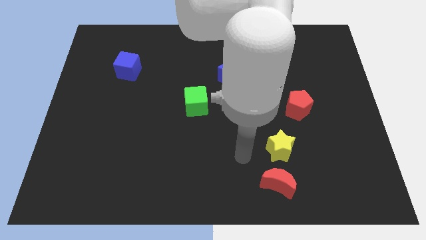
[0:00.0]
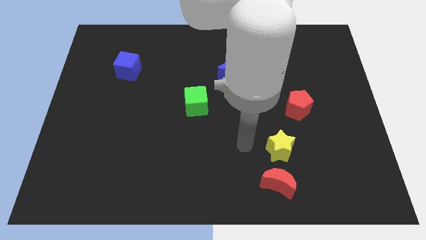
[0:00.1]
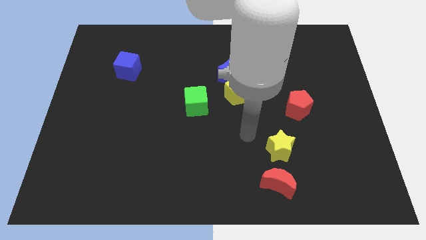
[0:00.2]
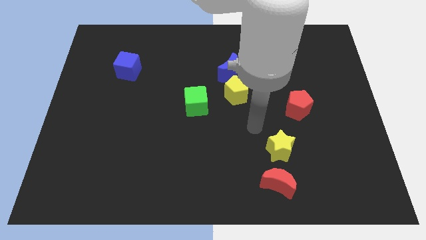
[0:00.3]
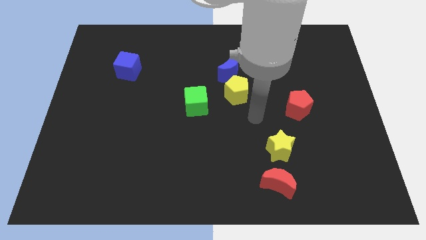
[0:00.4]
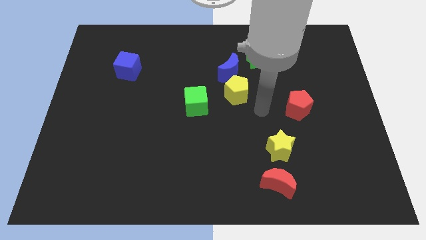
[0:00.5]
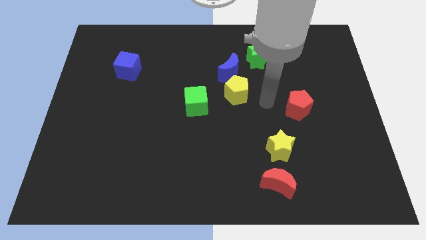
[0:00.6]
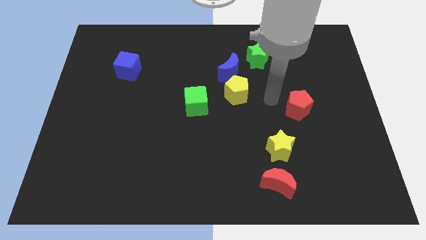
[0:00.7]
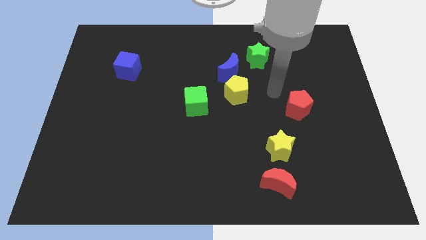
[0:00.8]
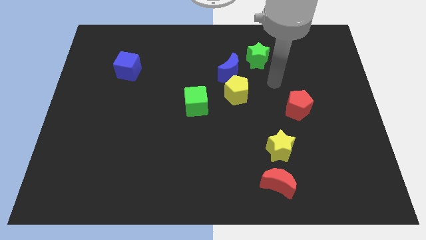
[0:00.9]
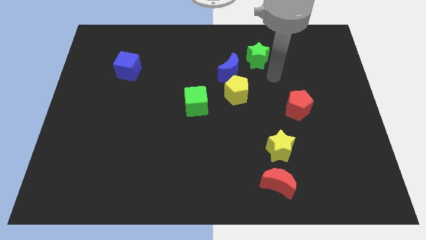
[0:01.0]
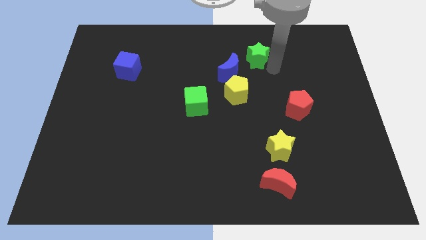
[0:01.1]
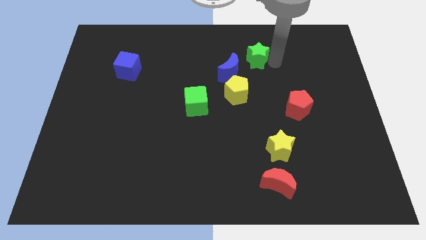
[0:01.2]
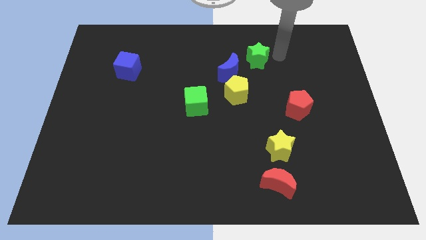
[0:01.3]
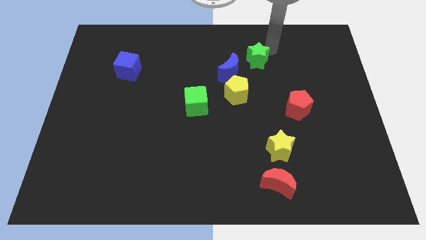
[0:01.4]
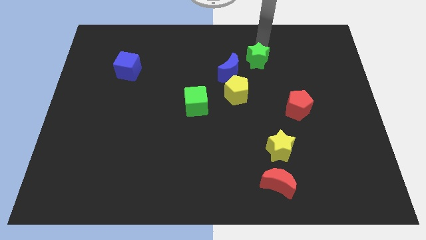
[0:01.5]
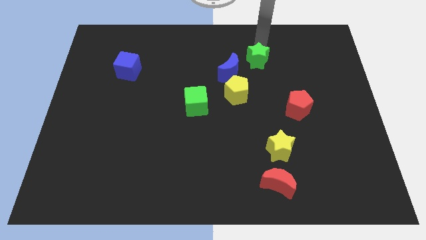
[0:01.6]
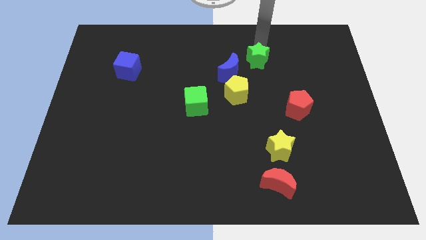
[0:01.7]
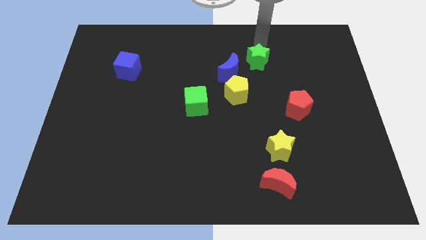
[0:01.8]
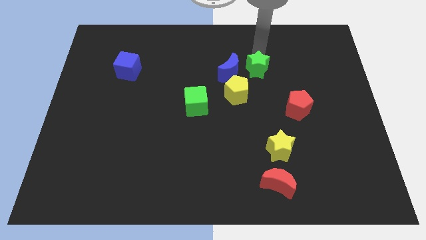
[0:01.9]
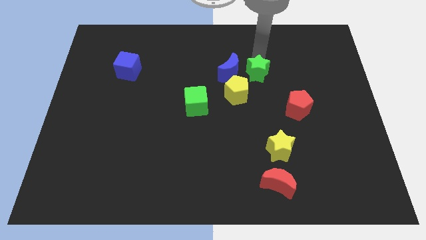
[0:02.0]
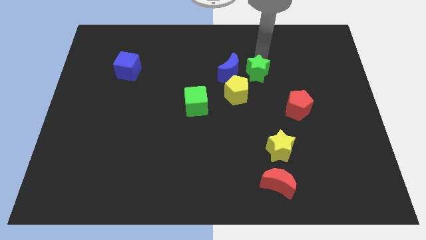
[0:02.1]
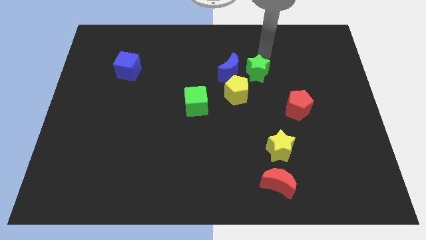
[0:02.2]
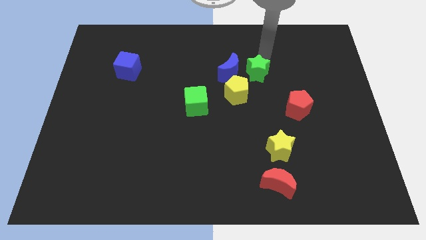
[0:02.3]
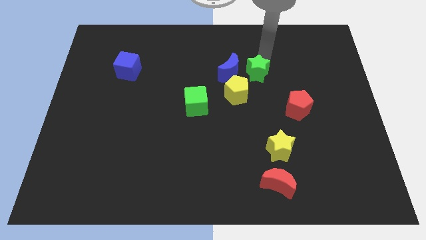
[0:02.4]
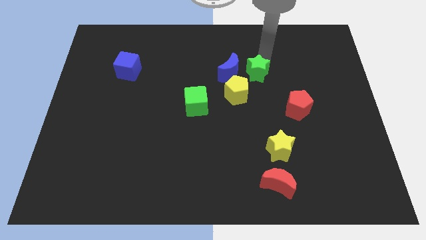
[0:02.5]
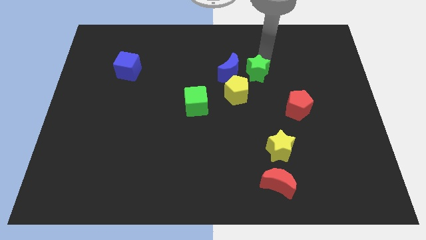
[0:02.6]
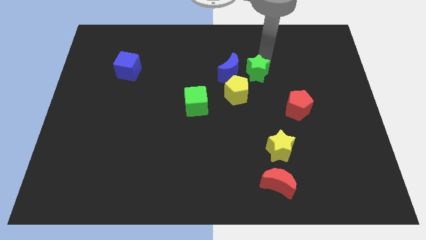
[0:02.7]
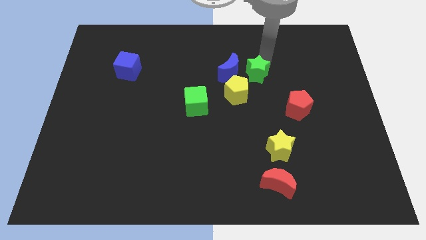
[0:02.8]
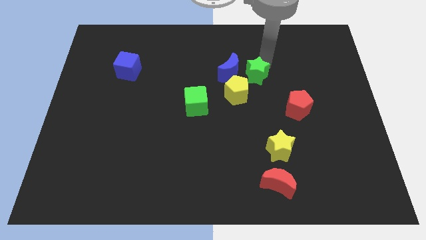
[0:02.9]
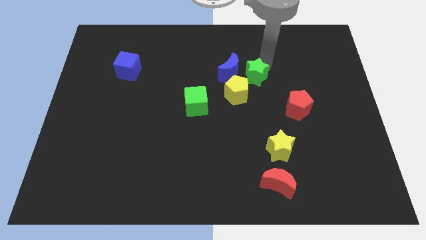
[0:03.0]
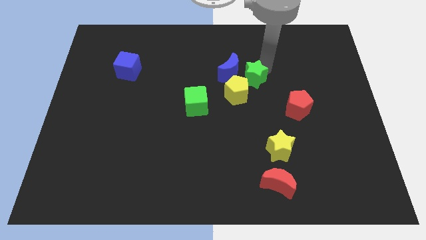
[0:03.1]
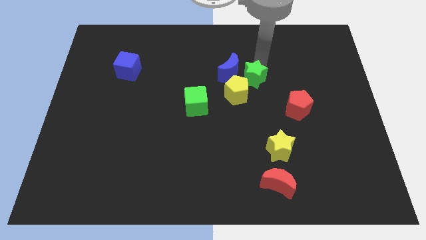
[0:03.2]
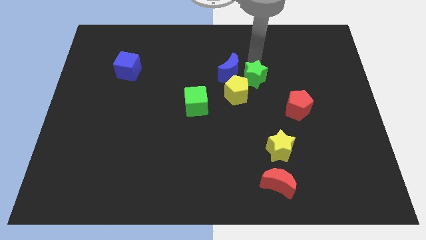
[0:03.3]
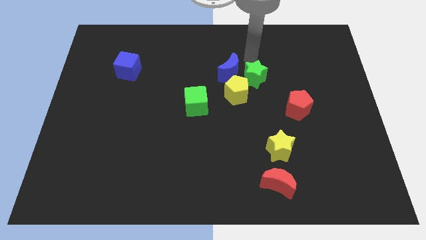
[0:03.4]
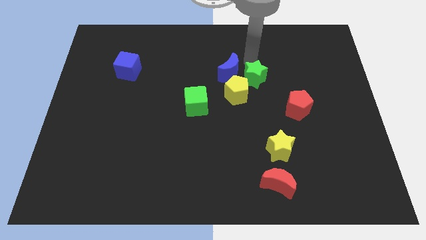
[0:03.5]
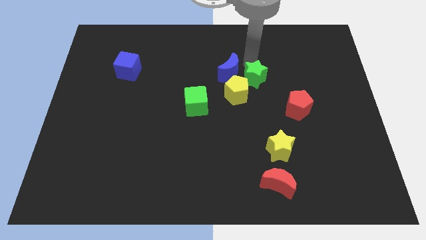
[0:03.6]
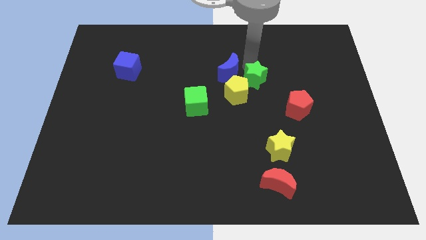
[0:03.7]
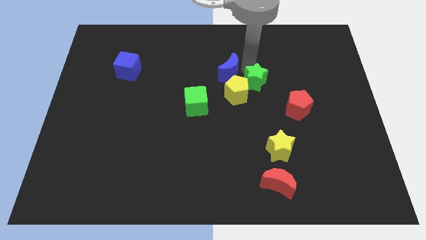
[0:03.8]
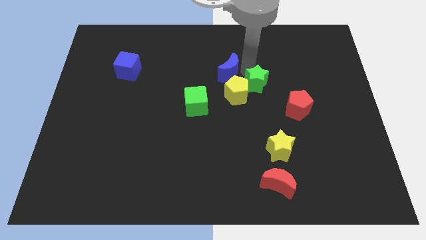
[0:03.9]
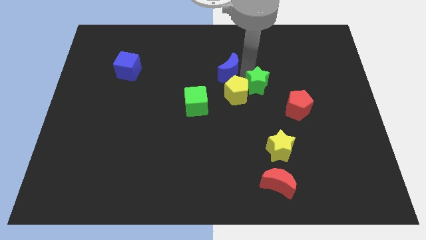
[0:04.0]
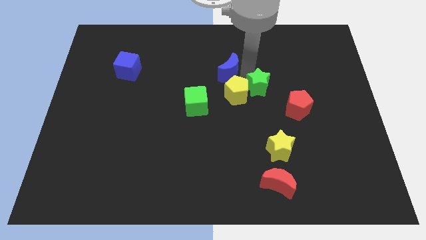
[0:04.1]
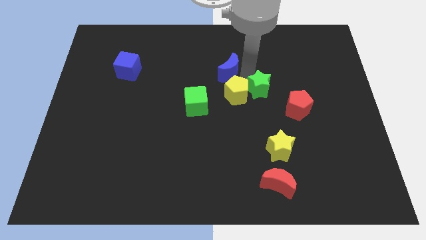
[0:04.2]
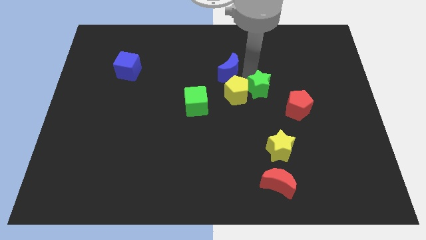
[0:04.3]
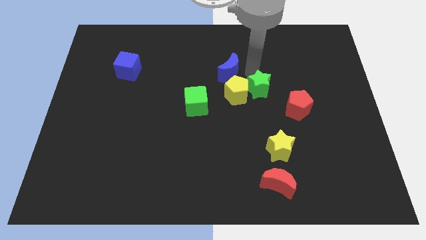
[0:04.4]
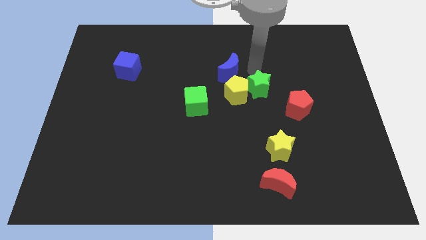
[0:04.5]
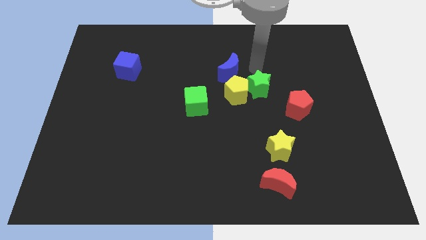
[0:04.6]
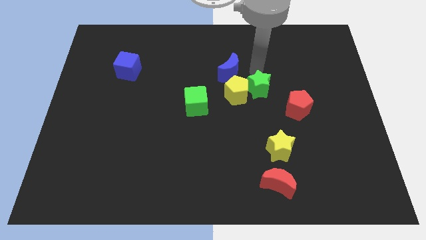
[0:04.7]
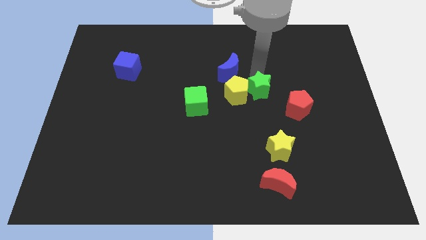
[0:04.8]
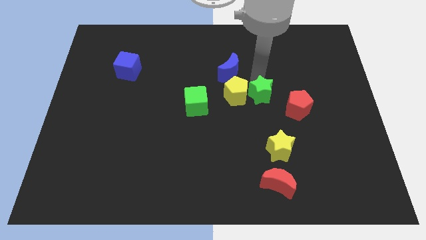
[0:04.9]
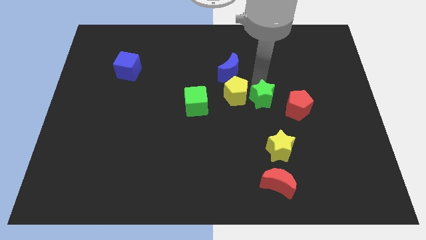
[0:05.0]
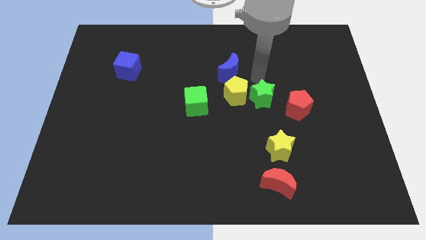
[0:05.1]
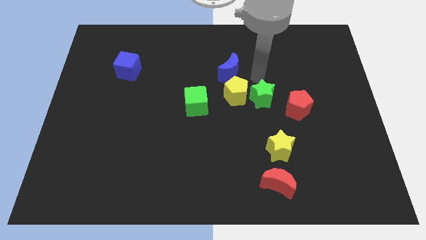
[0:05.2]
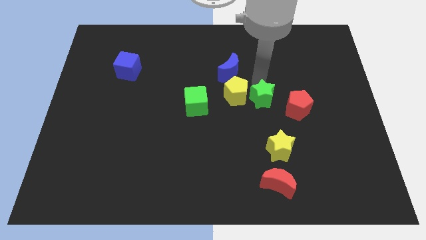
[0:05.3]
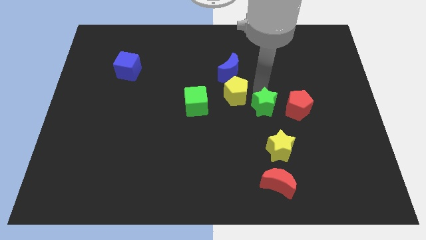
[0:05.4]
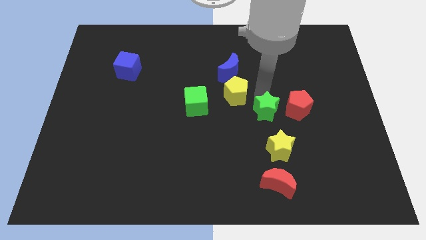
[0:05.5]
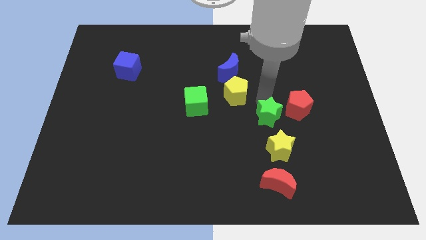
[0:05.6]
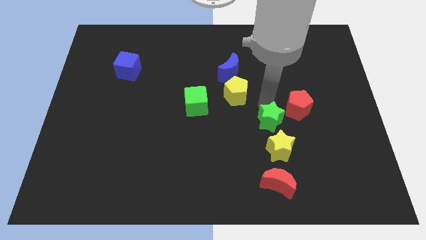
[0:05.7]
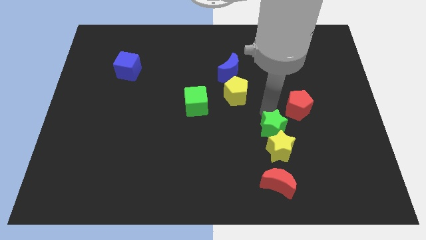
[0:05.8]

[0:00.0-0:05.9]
push the green star towards the yellow star

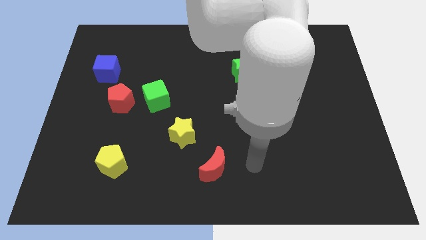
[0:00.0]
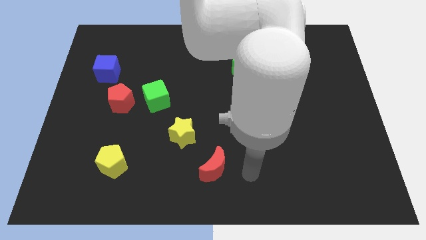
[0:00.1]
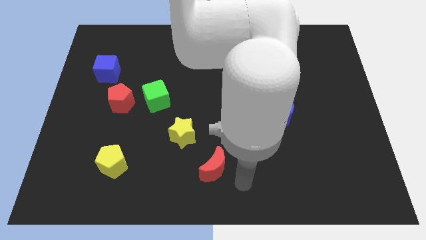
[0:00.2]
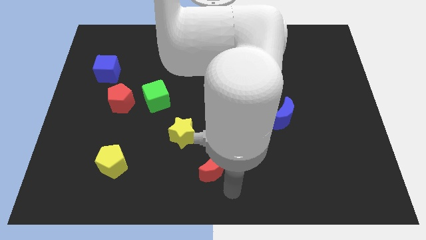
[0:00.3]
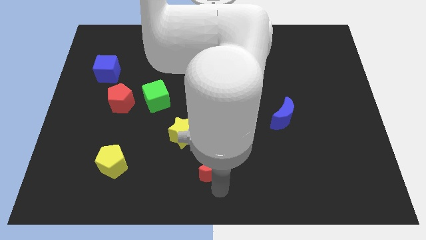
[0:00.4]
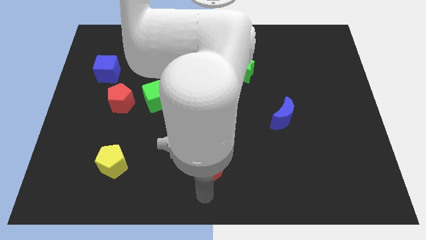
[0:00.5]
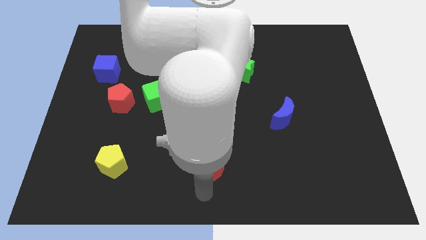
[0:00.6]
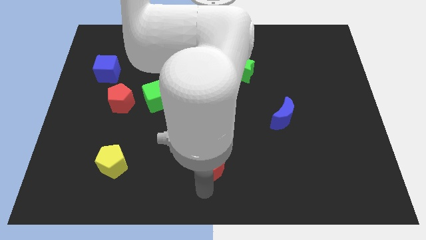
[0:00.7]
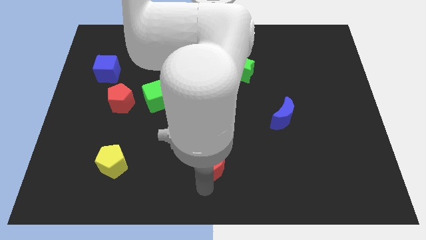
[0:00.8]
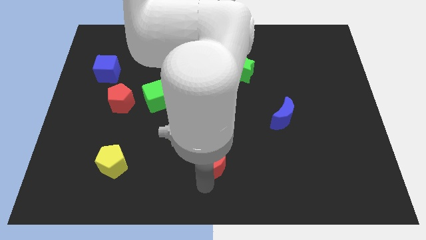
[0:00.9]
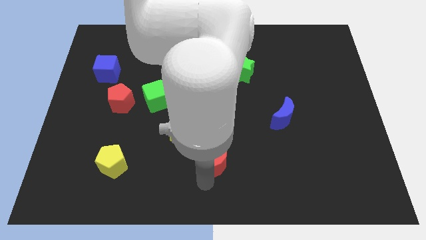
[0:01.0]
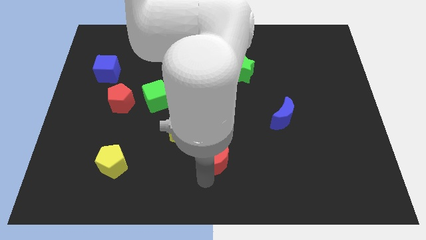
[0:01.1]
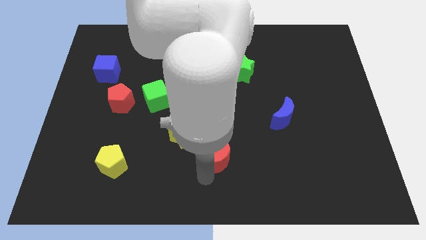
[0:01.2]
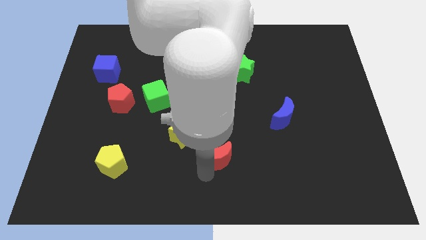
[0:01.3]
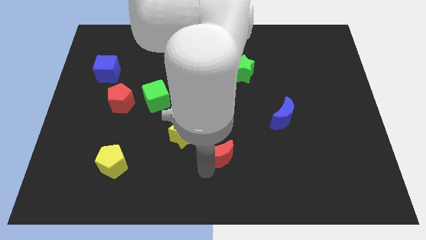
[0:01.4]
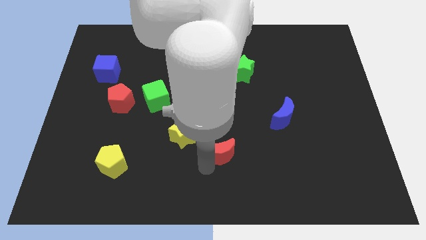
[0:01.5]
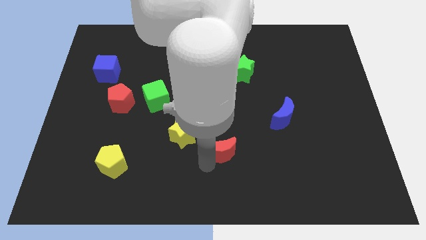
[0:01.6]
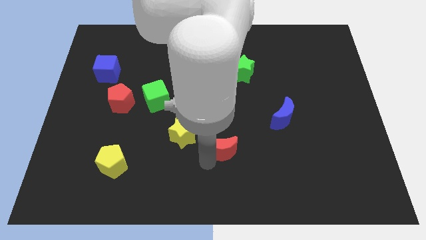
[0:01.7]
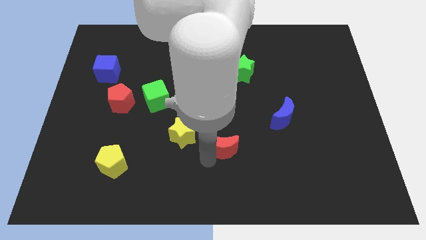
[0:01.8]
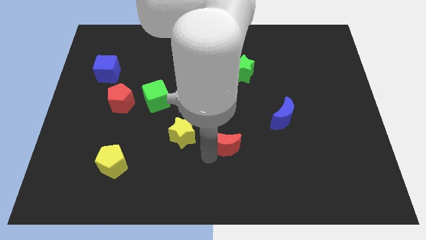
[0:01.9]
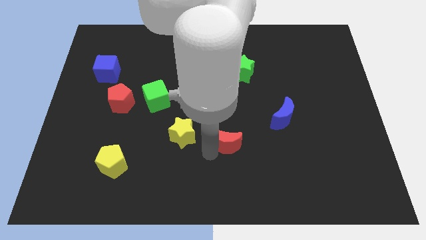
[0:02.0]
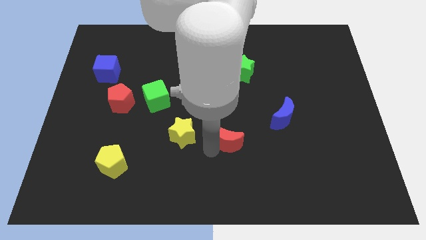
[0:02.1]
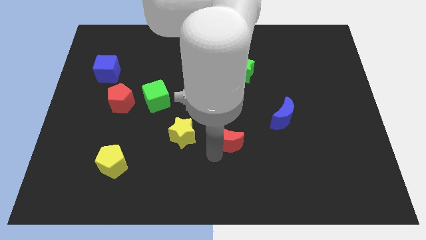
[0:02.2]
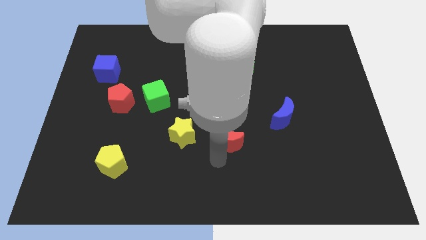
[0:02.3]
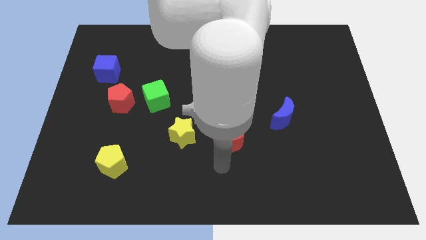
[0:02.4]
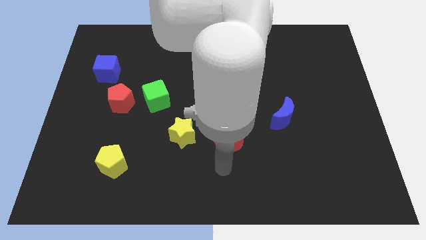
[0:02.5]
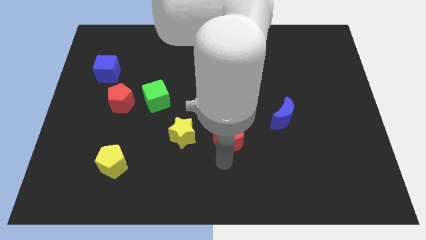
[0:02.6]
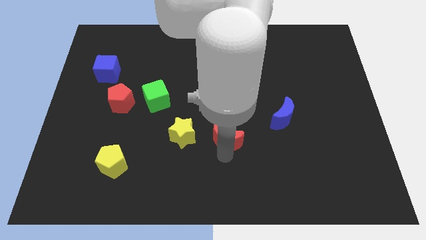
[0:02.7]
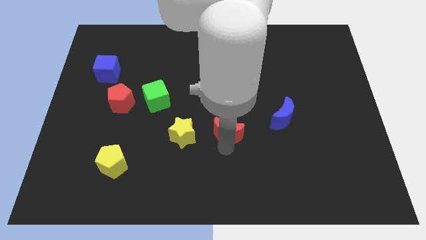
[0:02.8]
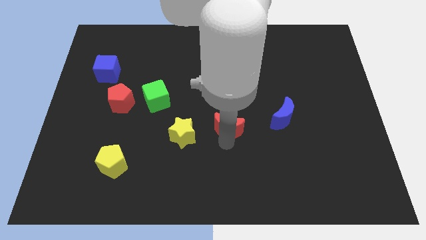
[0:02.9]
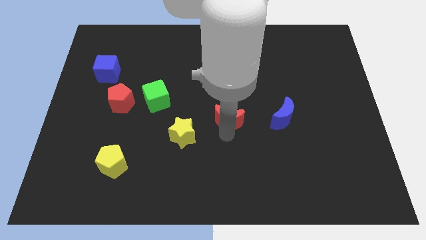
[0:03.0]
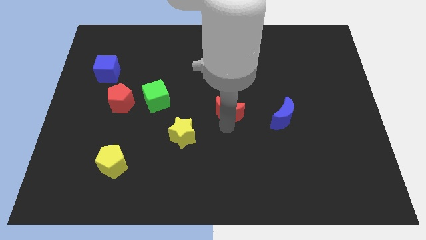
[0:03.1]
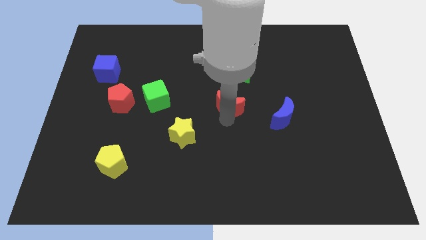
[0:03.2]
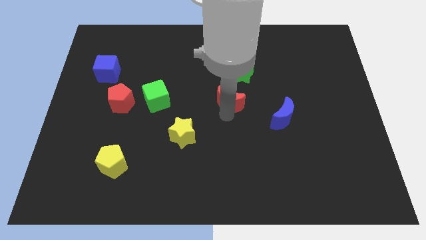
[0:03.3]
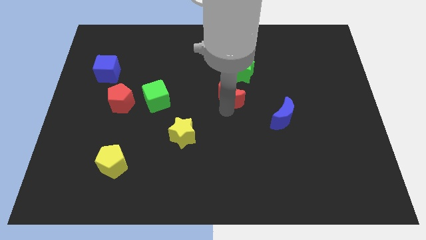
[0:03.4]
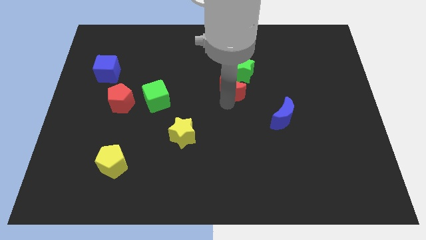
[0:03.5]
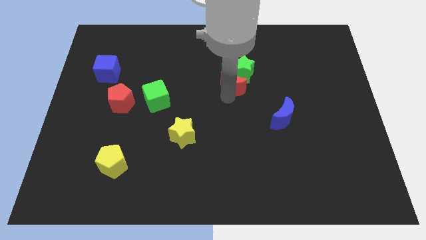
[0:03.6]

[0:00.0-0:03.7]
move the red moon next to the green star
